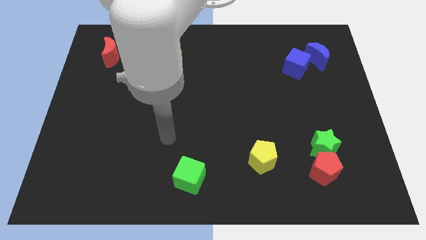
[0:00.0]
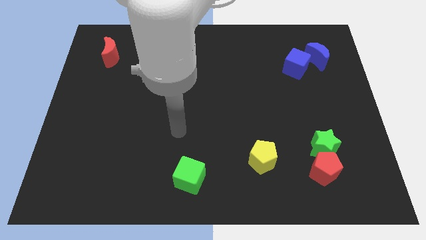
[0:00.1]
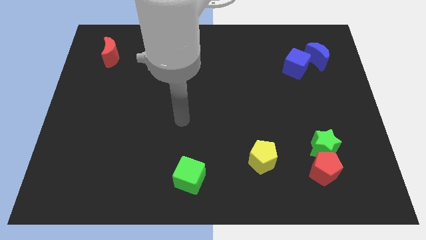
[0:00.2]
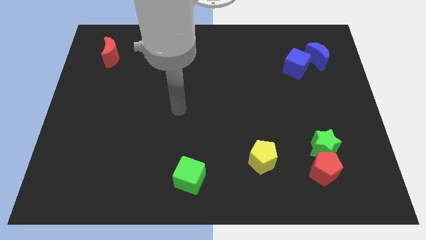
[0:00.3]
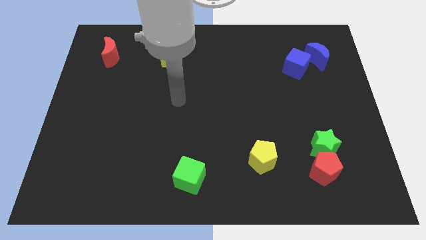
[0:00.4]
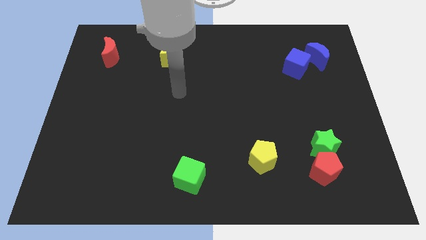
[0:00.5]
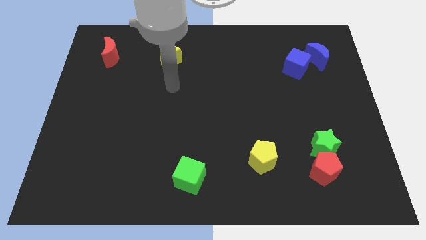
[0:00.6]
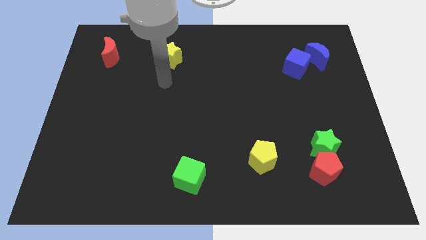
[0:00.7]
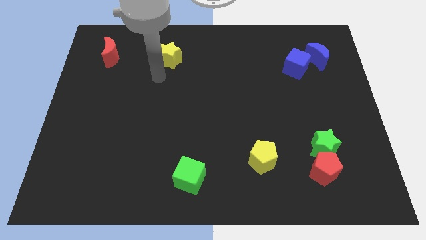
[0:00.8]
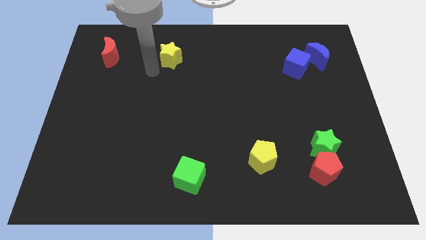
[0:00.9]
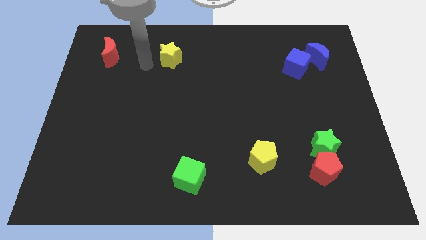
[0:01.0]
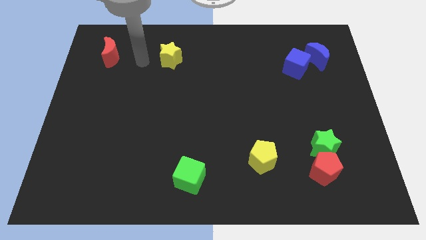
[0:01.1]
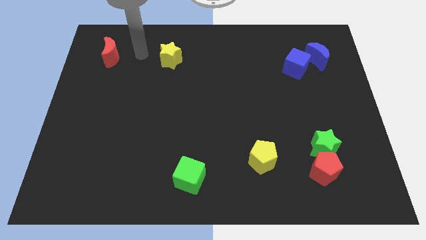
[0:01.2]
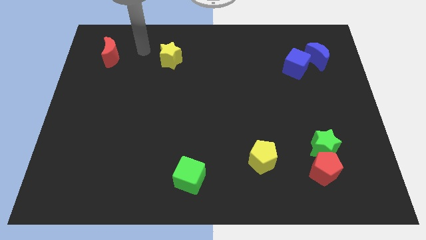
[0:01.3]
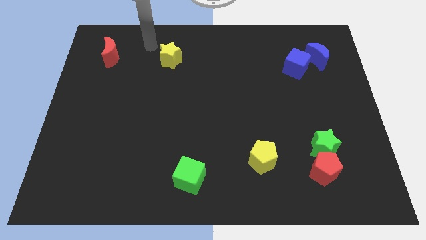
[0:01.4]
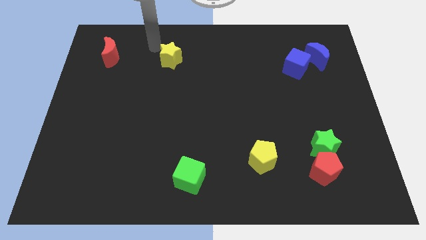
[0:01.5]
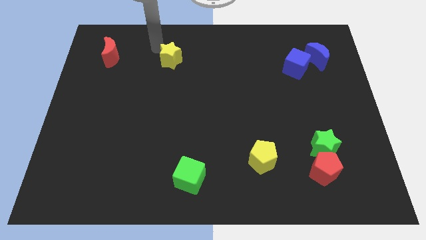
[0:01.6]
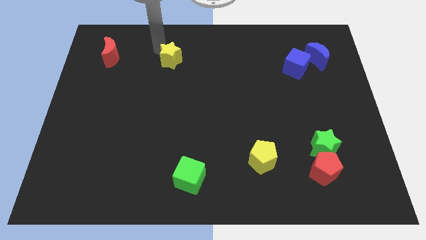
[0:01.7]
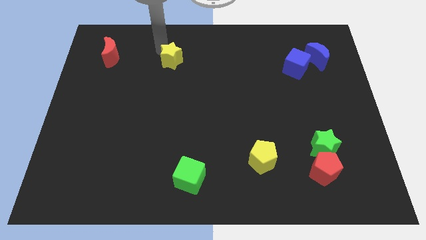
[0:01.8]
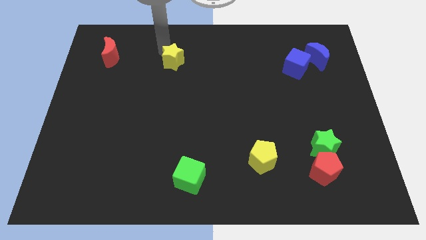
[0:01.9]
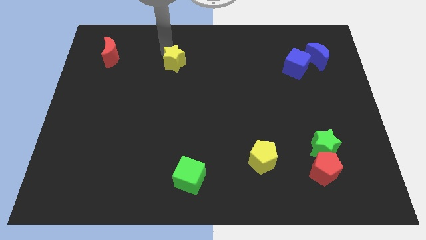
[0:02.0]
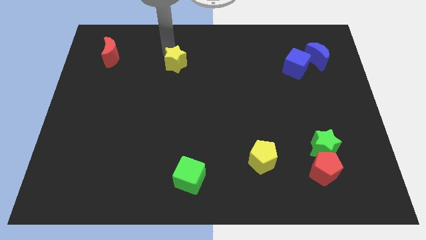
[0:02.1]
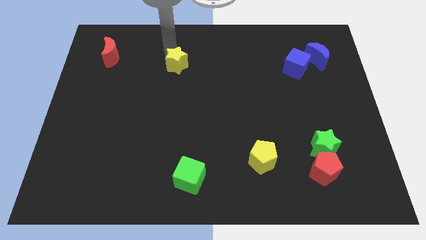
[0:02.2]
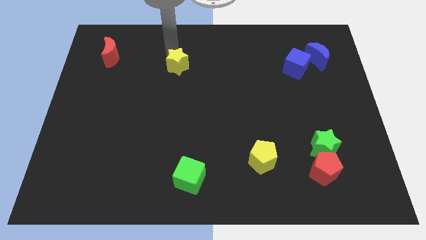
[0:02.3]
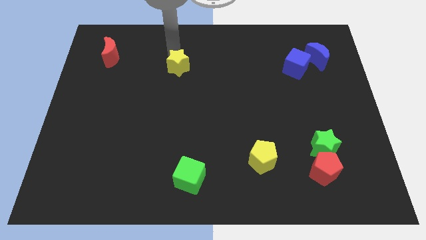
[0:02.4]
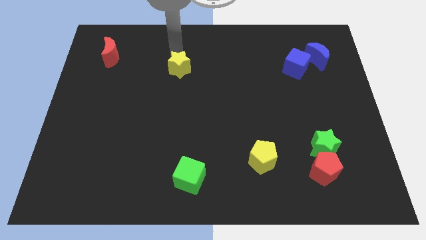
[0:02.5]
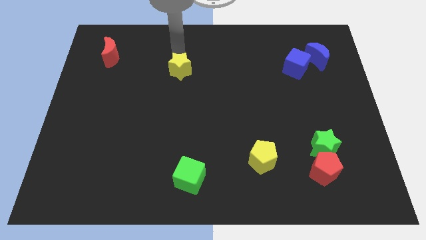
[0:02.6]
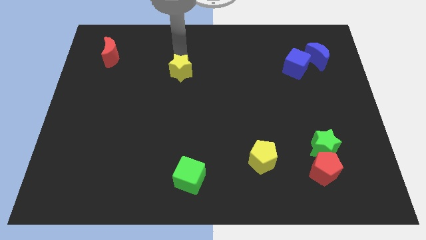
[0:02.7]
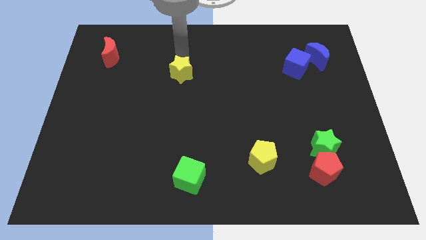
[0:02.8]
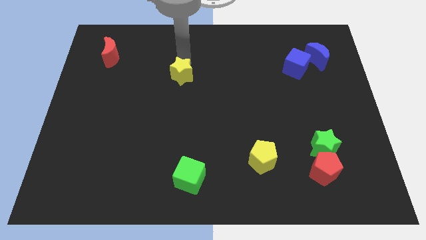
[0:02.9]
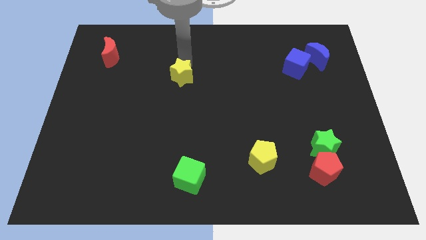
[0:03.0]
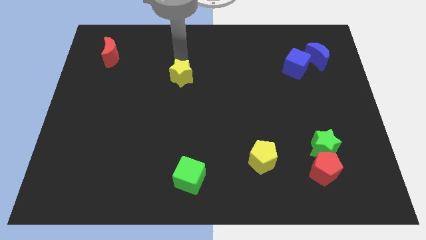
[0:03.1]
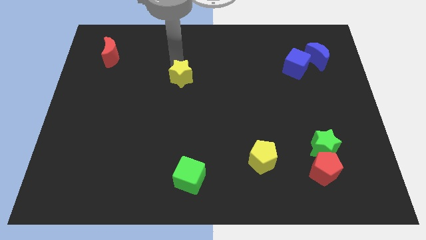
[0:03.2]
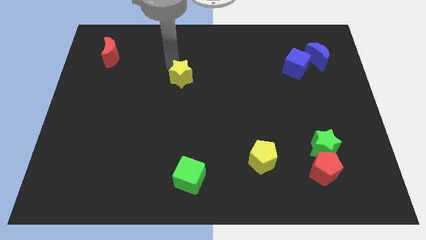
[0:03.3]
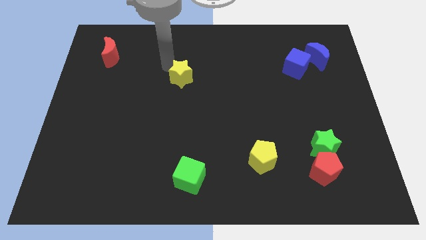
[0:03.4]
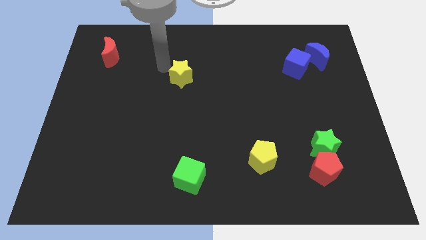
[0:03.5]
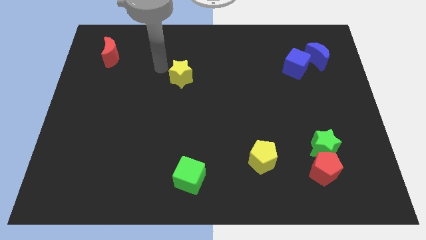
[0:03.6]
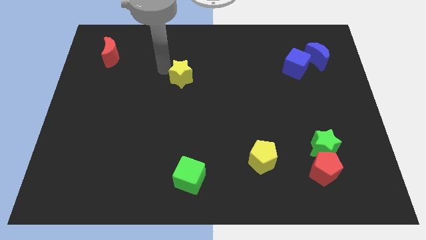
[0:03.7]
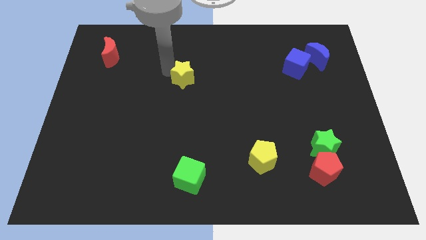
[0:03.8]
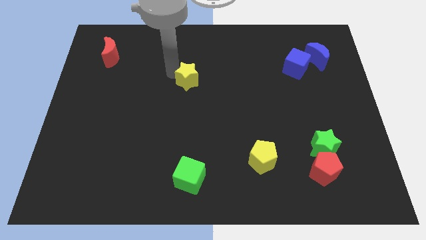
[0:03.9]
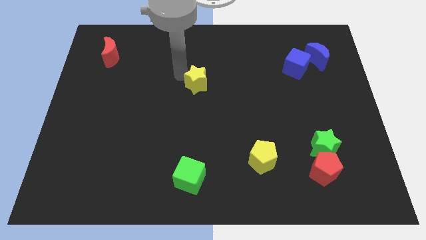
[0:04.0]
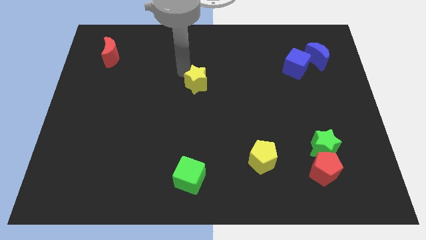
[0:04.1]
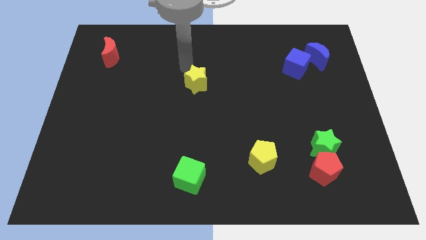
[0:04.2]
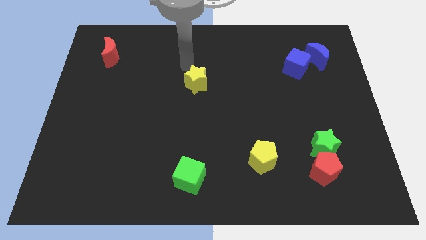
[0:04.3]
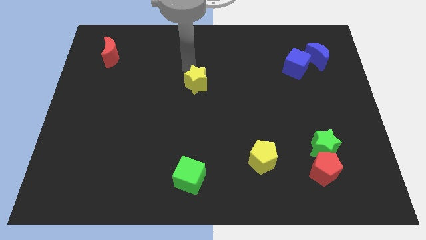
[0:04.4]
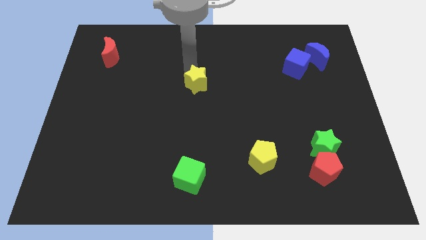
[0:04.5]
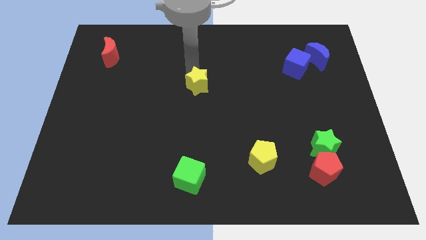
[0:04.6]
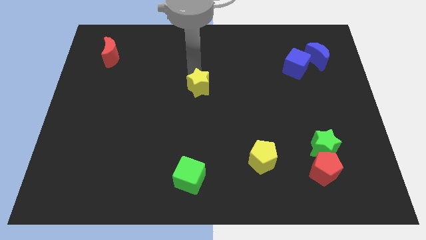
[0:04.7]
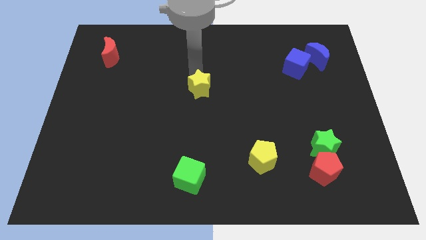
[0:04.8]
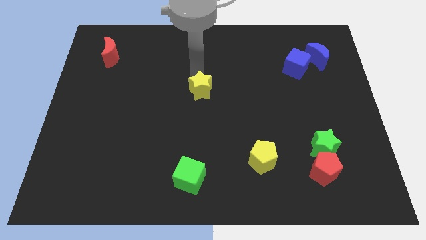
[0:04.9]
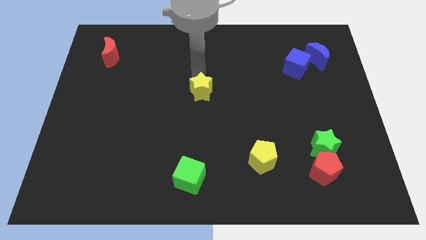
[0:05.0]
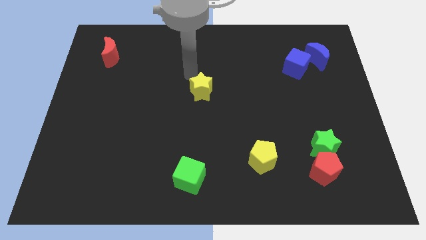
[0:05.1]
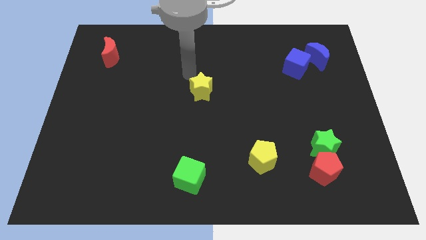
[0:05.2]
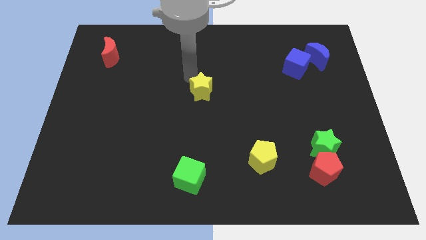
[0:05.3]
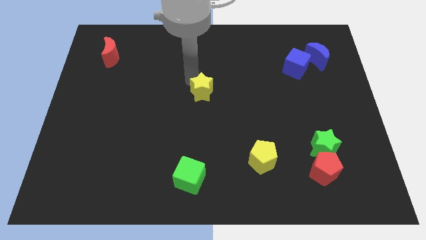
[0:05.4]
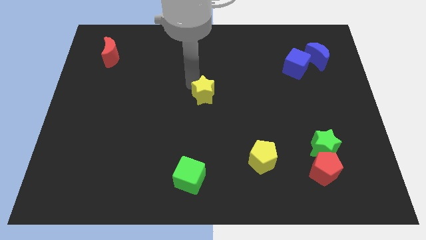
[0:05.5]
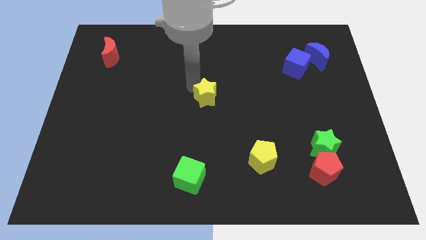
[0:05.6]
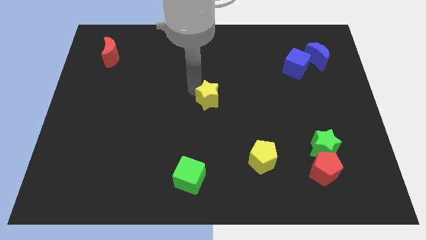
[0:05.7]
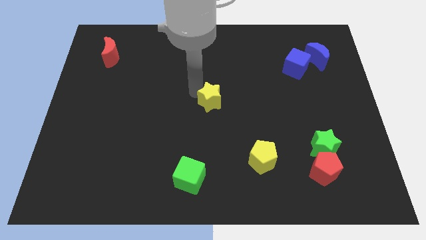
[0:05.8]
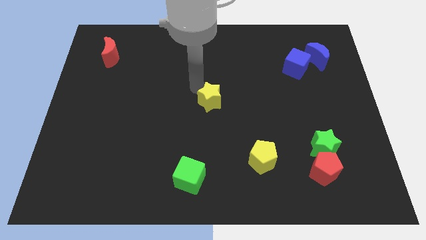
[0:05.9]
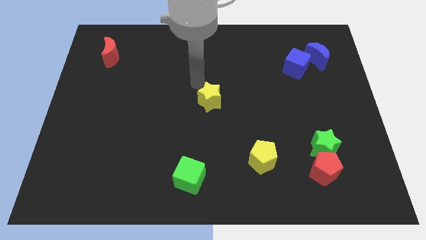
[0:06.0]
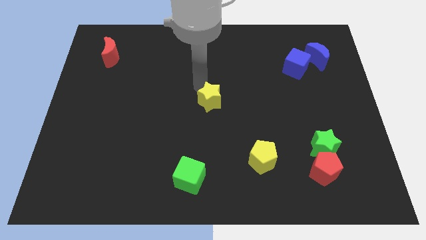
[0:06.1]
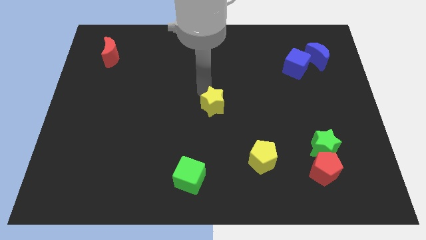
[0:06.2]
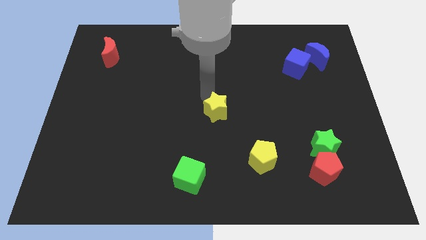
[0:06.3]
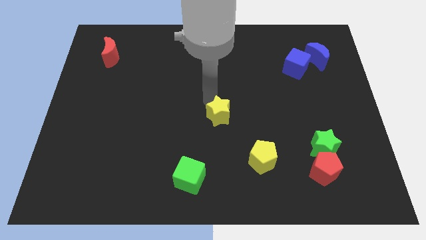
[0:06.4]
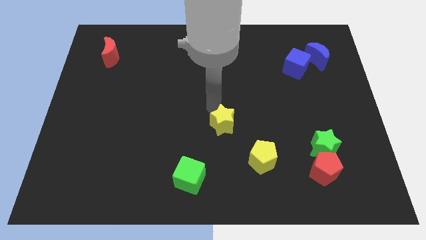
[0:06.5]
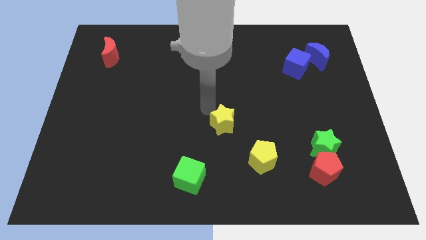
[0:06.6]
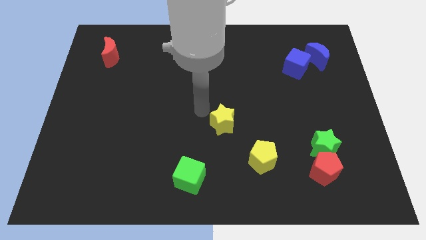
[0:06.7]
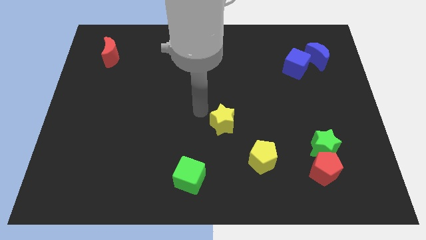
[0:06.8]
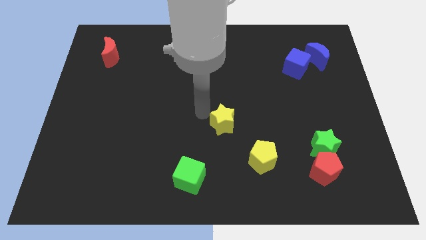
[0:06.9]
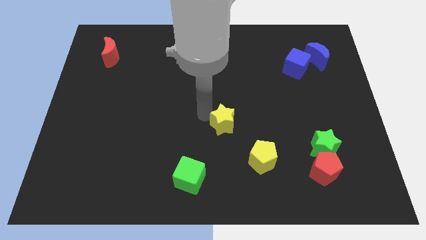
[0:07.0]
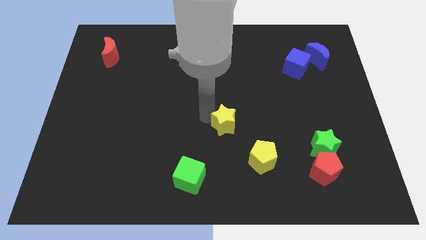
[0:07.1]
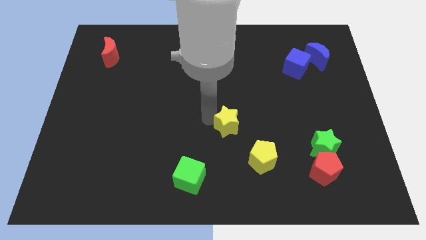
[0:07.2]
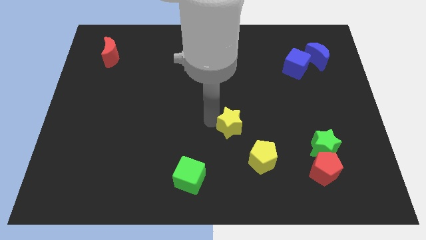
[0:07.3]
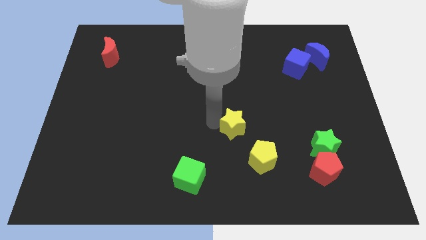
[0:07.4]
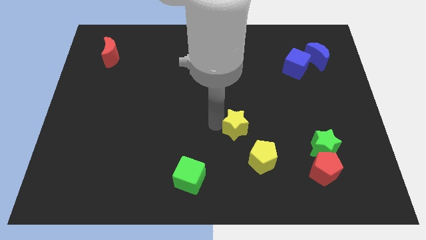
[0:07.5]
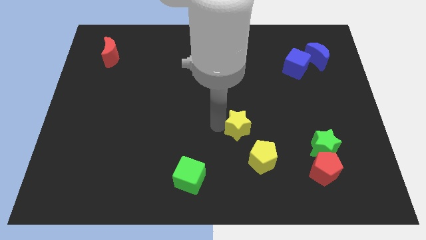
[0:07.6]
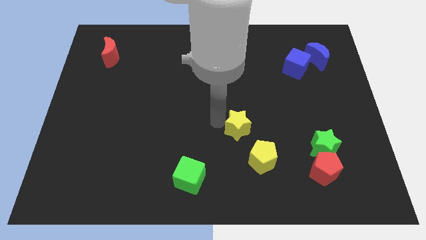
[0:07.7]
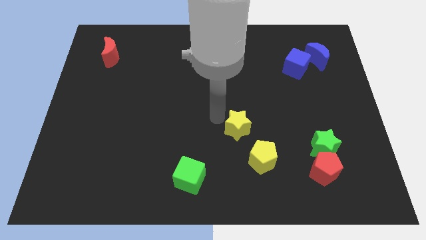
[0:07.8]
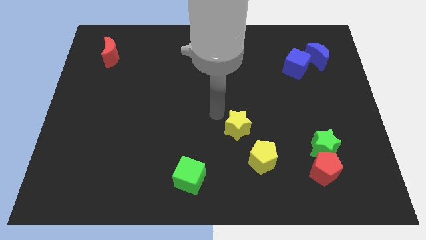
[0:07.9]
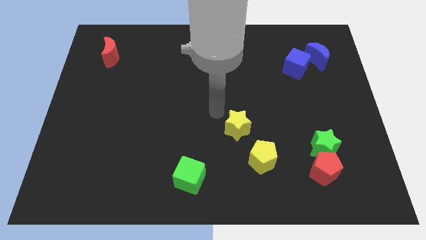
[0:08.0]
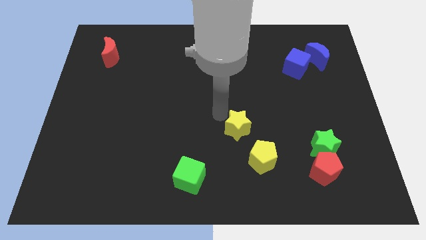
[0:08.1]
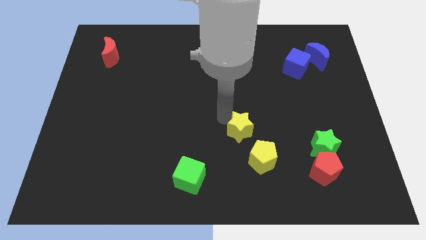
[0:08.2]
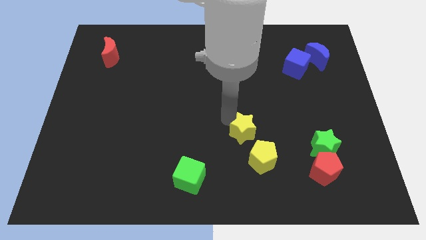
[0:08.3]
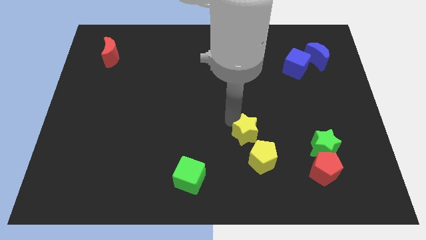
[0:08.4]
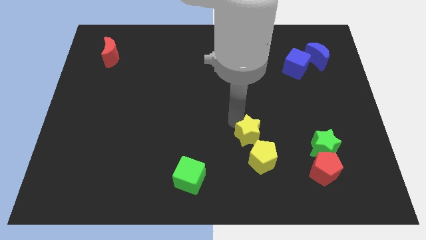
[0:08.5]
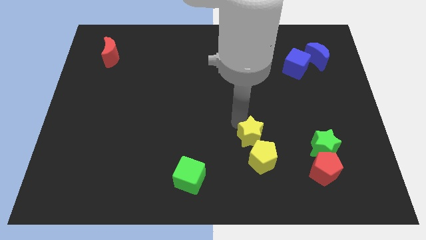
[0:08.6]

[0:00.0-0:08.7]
put the yellow star to the yellow pentagon
